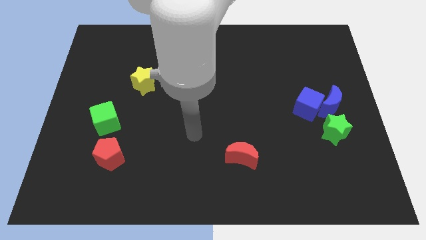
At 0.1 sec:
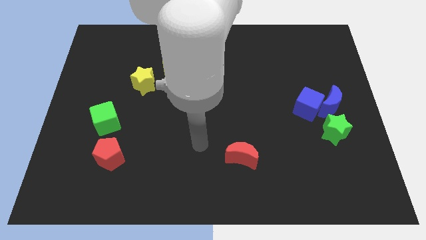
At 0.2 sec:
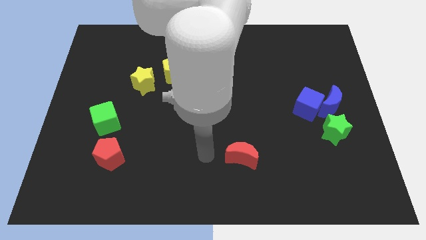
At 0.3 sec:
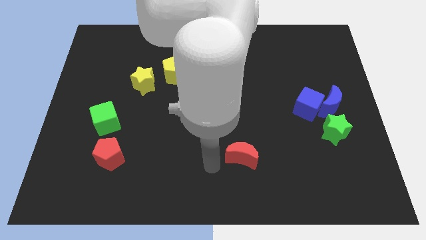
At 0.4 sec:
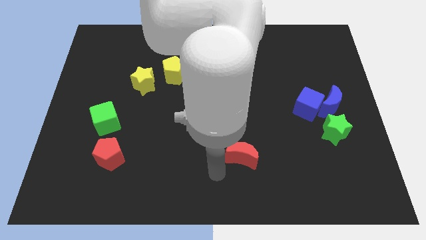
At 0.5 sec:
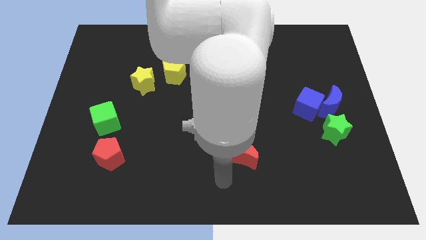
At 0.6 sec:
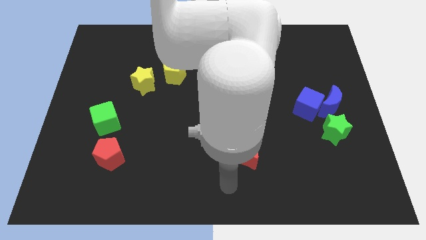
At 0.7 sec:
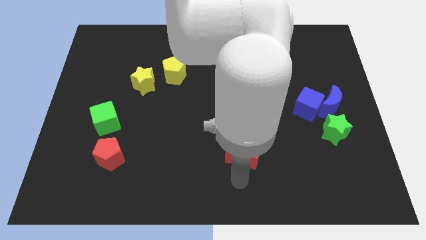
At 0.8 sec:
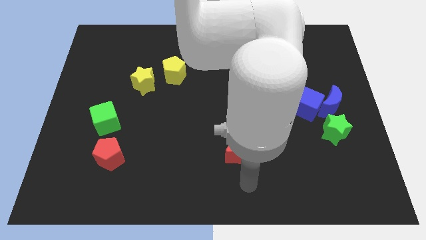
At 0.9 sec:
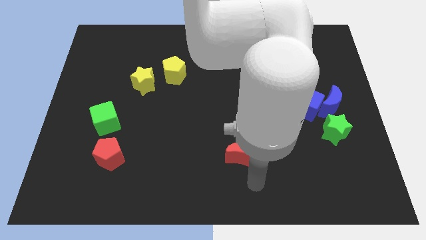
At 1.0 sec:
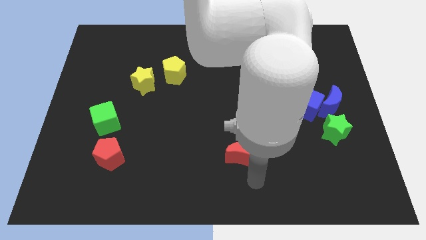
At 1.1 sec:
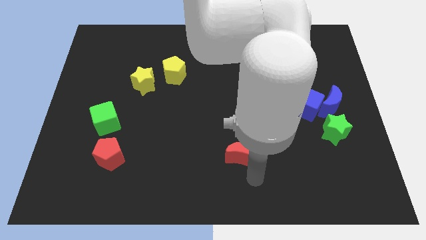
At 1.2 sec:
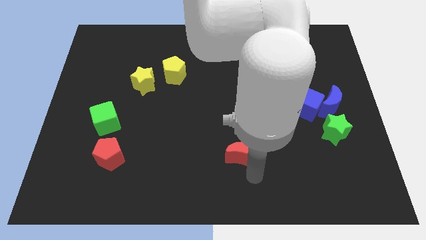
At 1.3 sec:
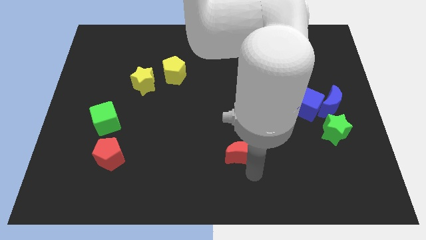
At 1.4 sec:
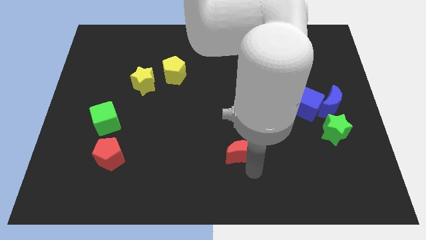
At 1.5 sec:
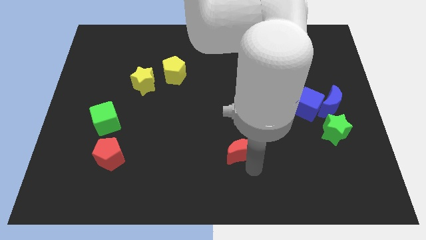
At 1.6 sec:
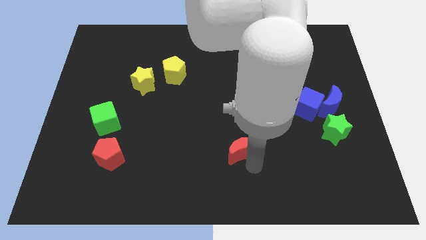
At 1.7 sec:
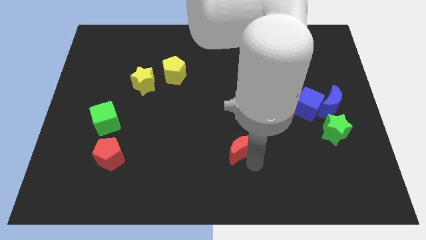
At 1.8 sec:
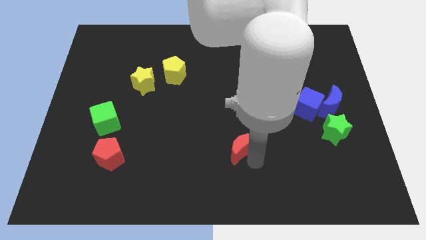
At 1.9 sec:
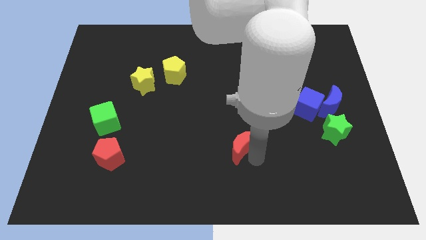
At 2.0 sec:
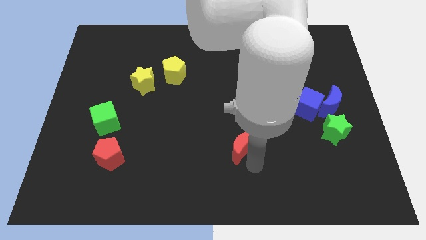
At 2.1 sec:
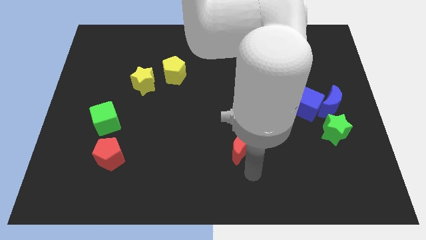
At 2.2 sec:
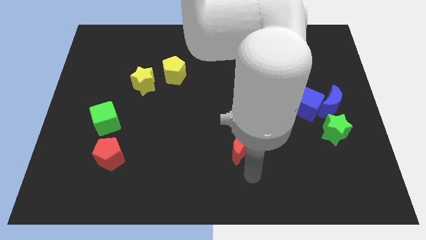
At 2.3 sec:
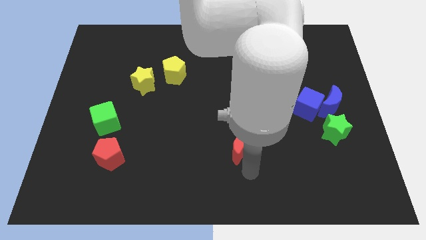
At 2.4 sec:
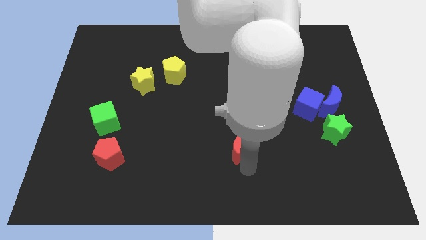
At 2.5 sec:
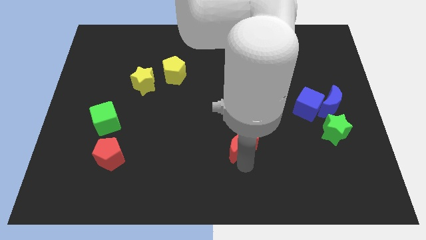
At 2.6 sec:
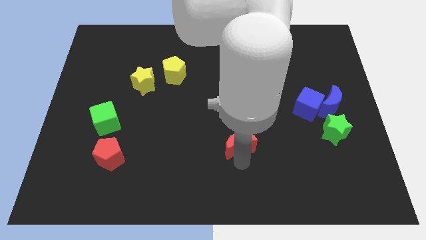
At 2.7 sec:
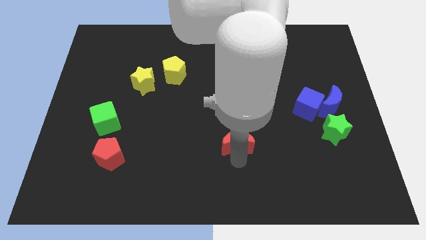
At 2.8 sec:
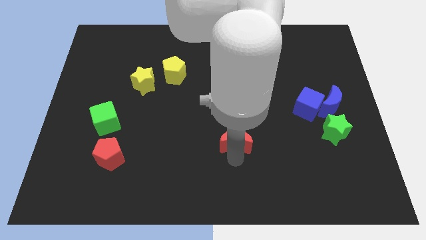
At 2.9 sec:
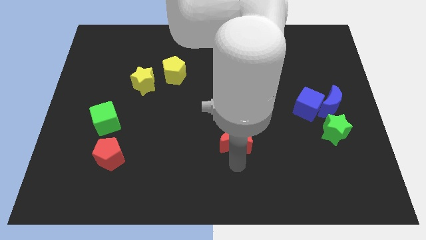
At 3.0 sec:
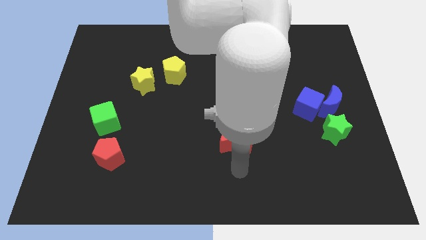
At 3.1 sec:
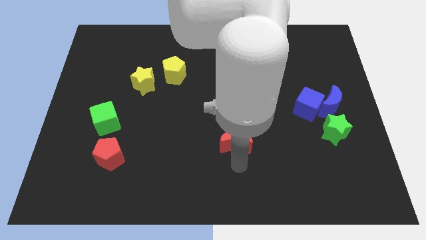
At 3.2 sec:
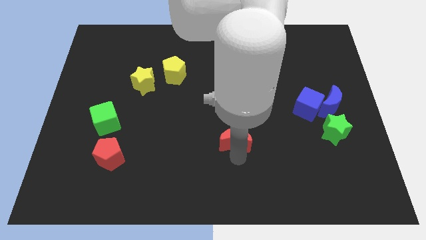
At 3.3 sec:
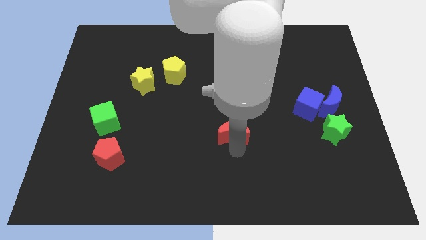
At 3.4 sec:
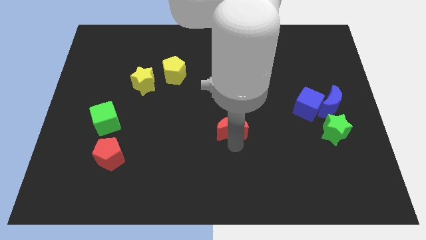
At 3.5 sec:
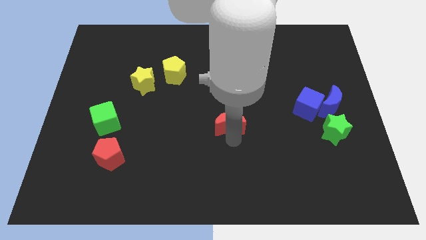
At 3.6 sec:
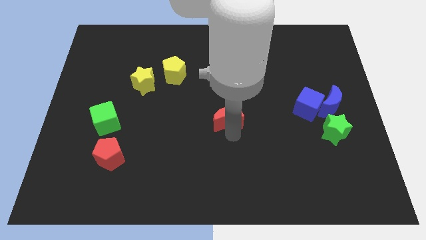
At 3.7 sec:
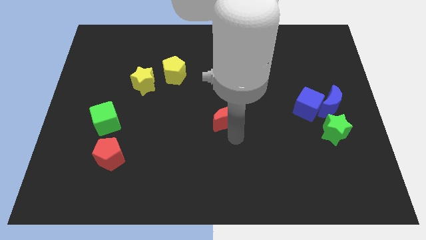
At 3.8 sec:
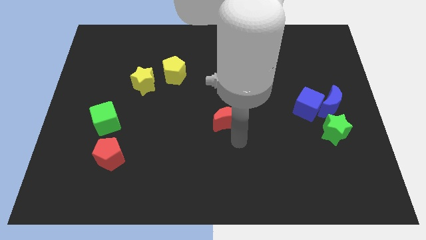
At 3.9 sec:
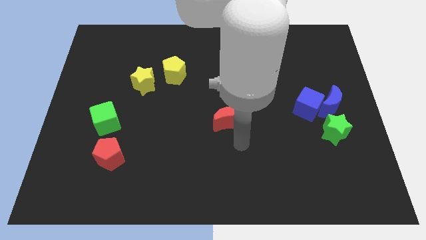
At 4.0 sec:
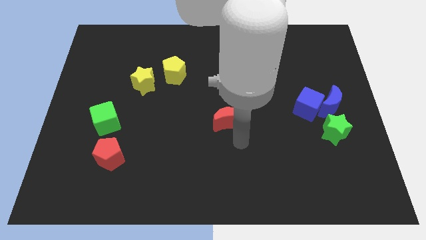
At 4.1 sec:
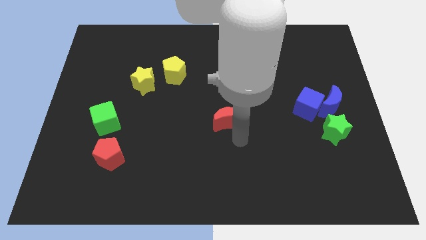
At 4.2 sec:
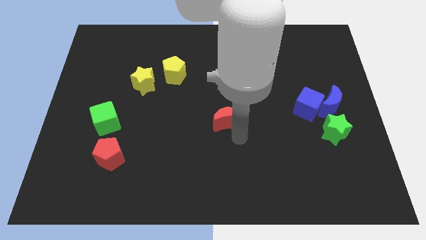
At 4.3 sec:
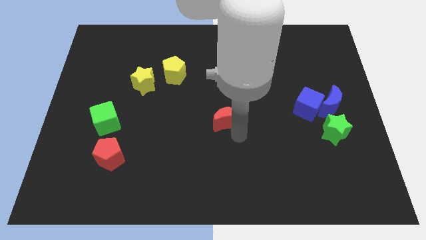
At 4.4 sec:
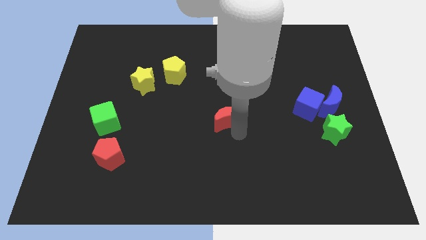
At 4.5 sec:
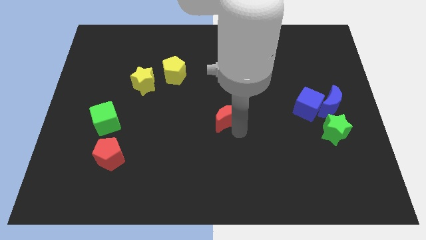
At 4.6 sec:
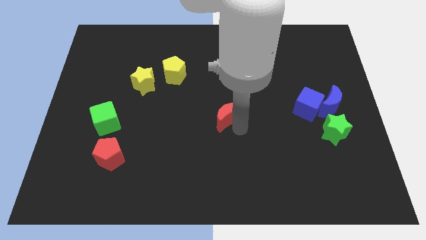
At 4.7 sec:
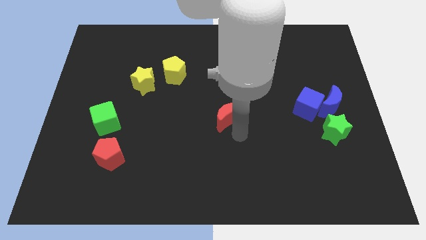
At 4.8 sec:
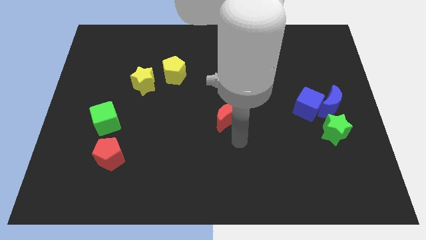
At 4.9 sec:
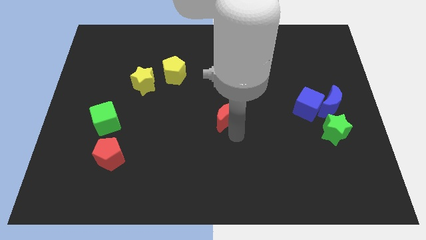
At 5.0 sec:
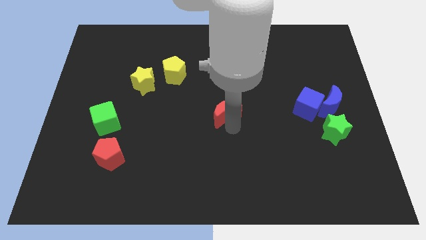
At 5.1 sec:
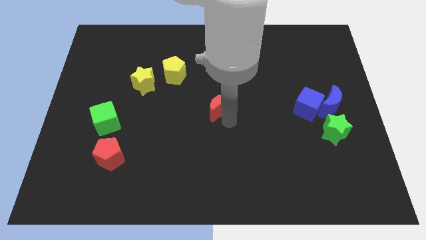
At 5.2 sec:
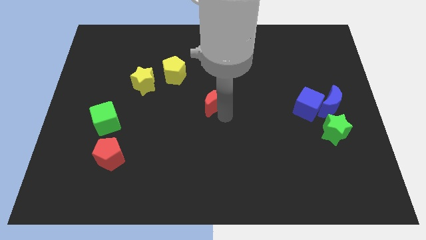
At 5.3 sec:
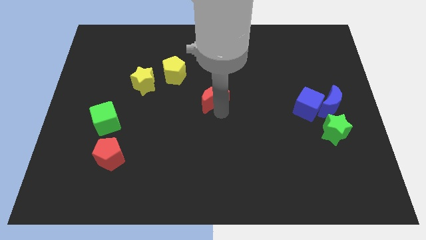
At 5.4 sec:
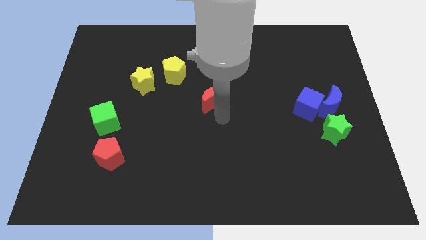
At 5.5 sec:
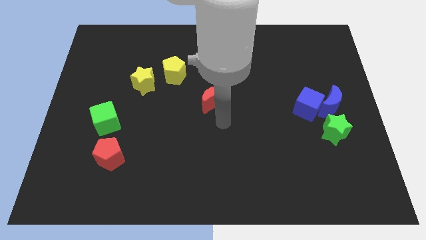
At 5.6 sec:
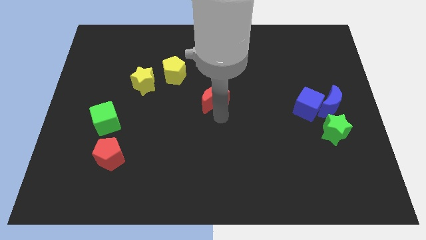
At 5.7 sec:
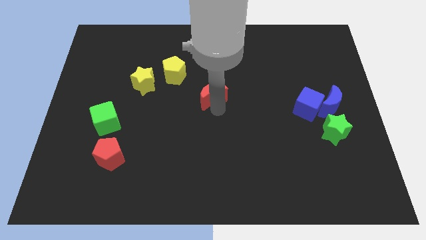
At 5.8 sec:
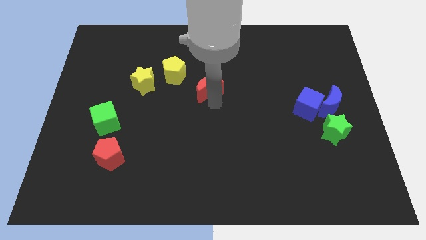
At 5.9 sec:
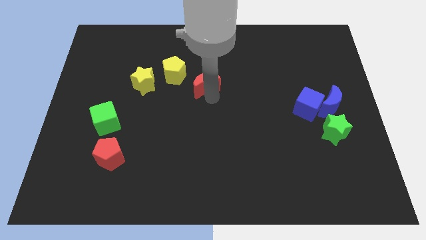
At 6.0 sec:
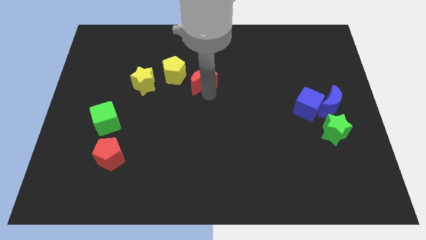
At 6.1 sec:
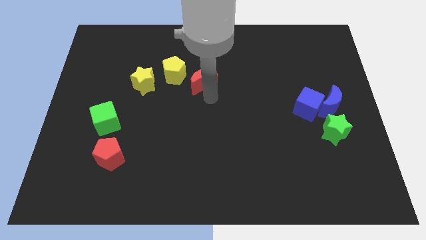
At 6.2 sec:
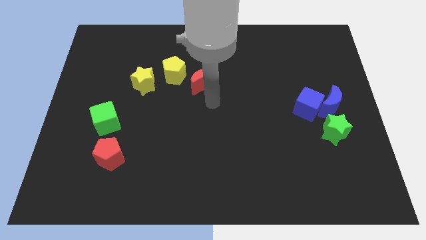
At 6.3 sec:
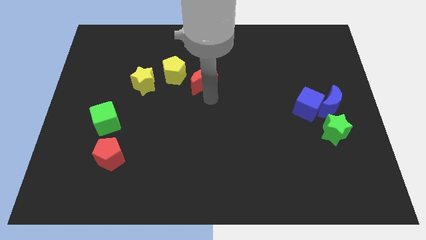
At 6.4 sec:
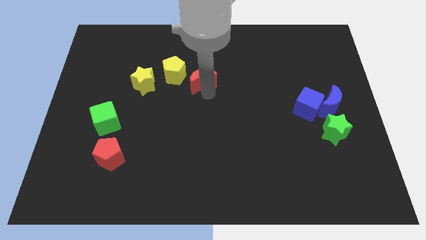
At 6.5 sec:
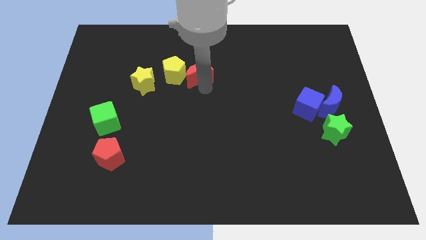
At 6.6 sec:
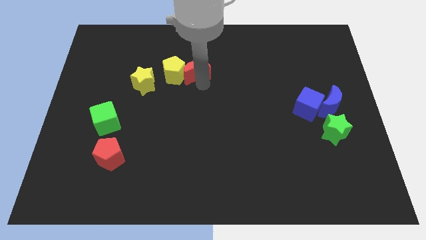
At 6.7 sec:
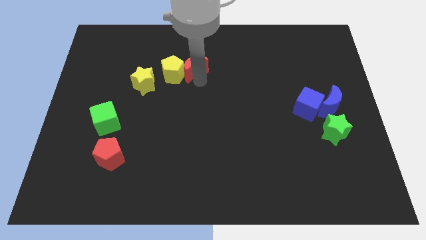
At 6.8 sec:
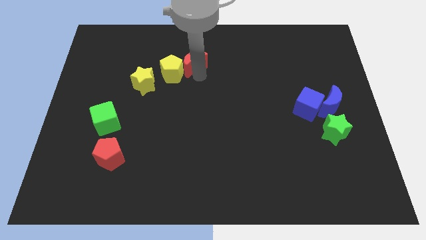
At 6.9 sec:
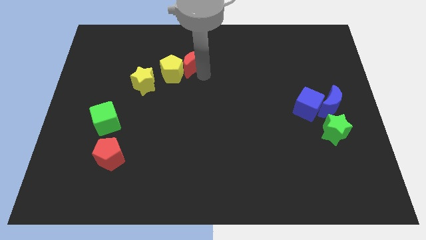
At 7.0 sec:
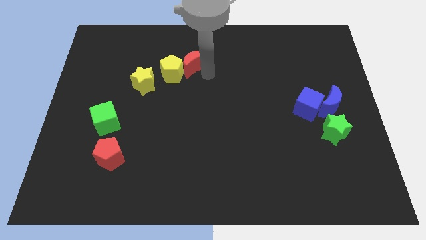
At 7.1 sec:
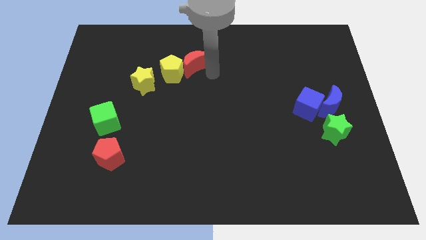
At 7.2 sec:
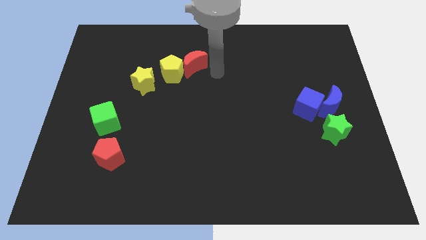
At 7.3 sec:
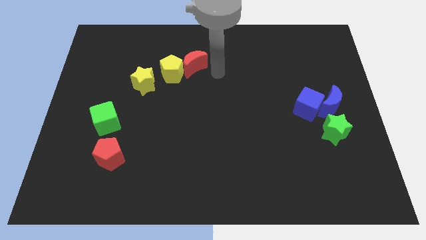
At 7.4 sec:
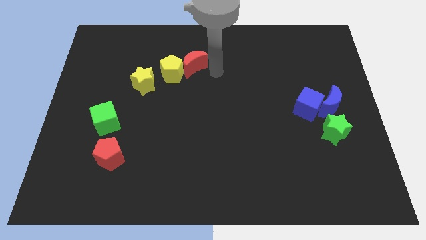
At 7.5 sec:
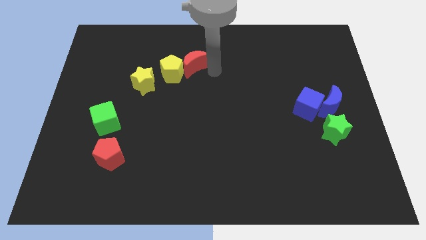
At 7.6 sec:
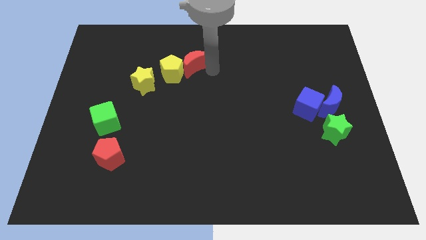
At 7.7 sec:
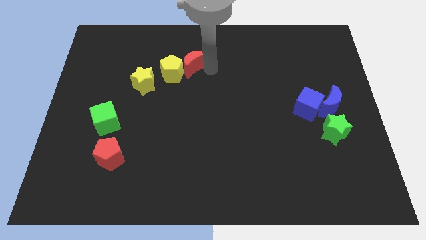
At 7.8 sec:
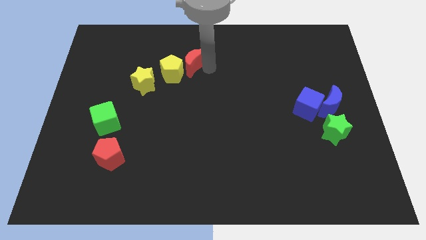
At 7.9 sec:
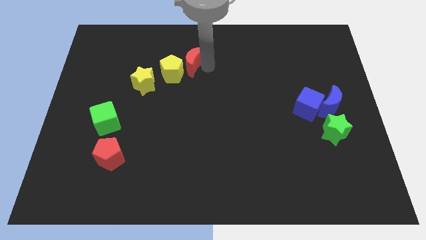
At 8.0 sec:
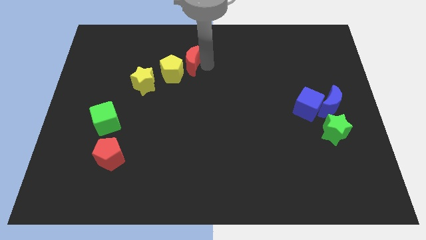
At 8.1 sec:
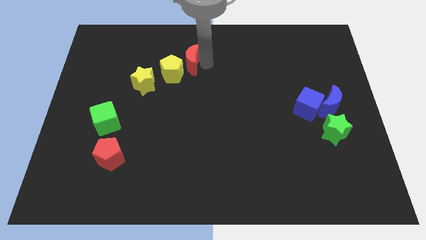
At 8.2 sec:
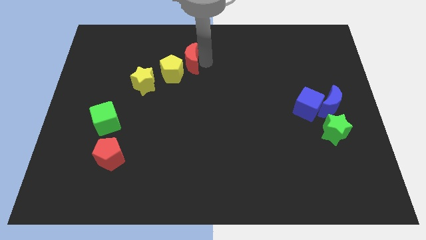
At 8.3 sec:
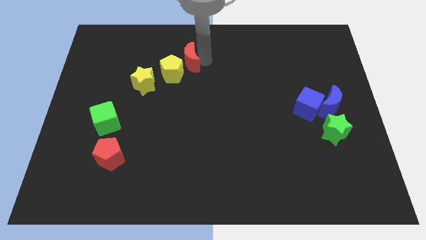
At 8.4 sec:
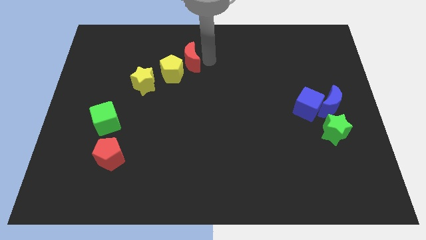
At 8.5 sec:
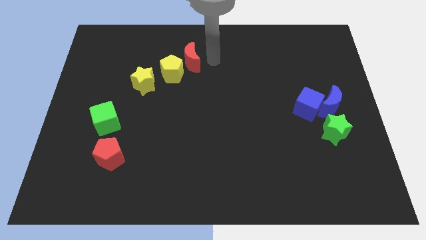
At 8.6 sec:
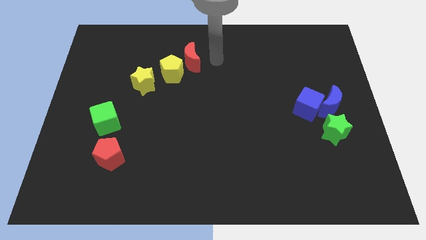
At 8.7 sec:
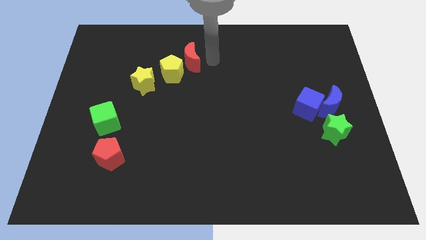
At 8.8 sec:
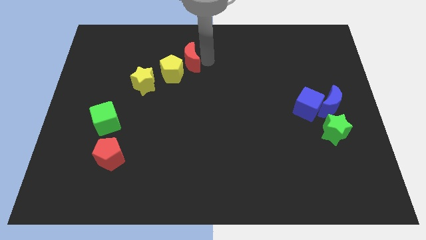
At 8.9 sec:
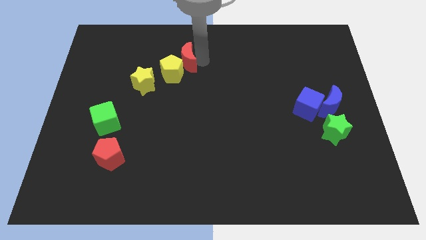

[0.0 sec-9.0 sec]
slide the red moon diagonally up and to the right of the yellow star
